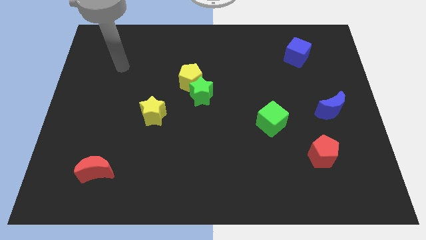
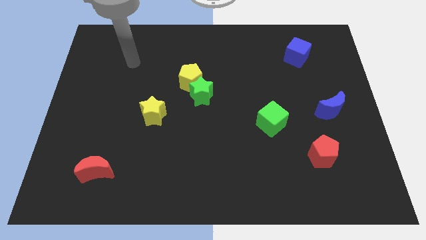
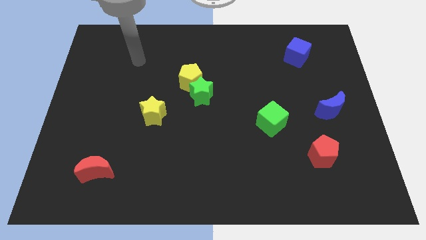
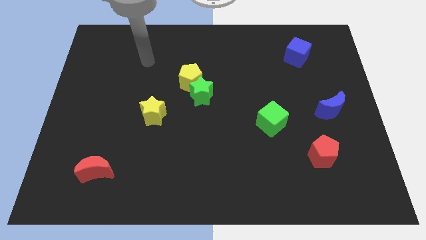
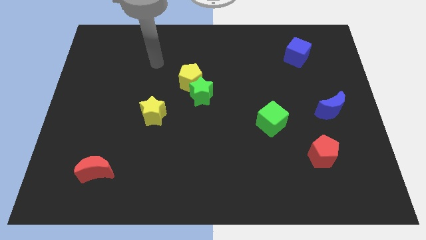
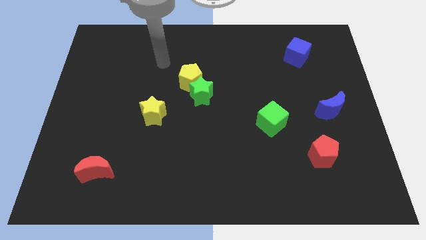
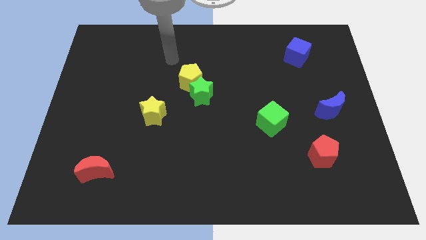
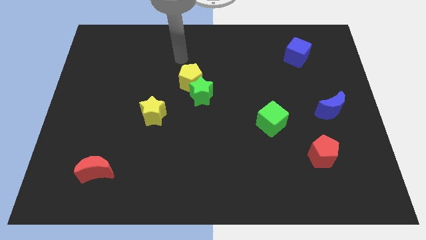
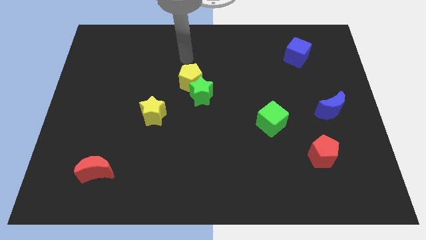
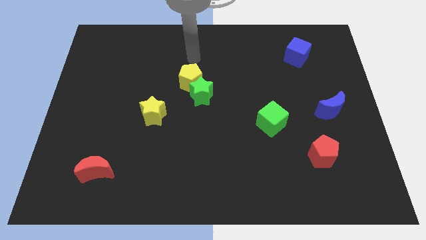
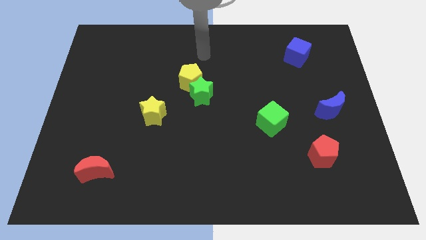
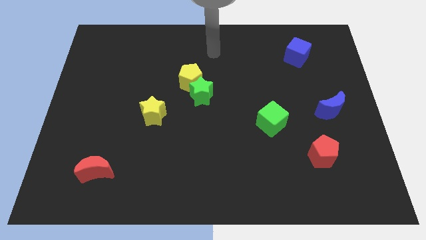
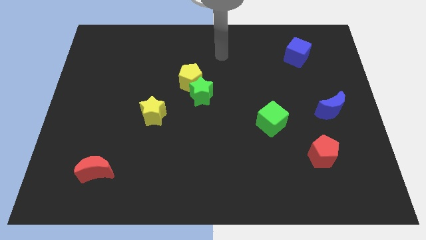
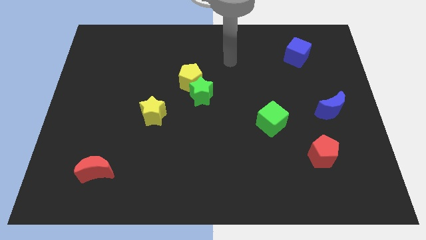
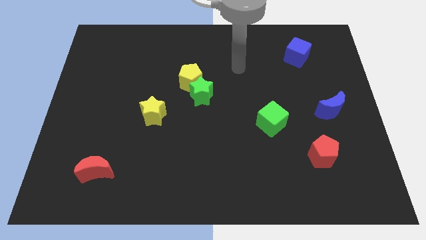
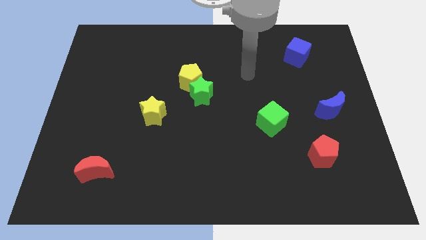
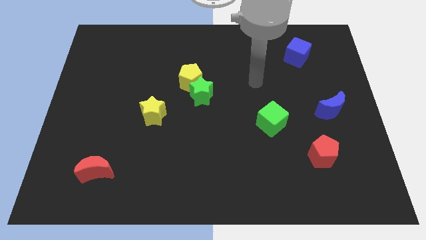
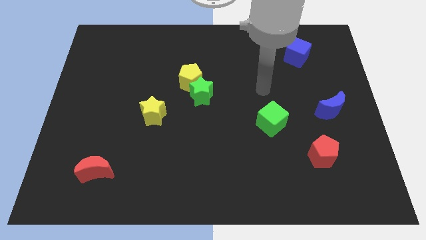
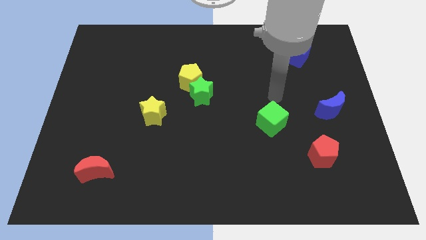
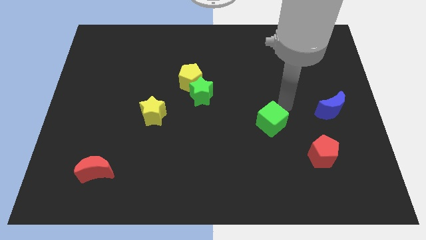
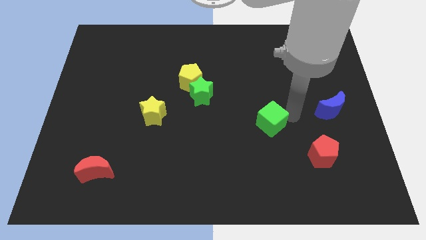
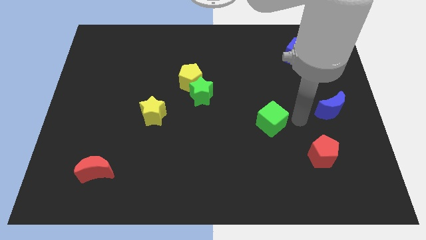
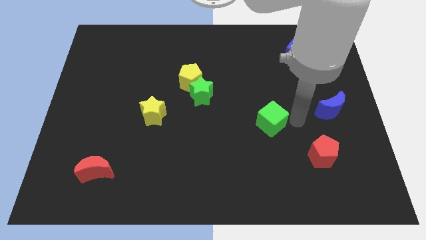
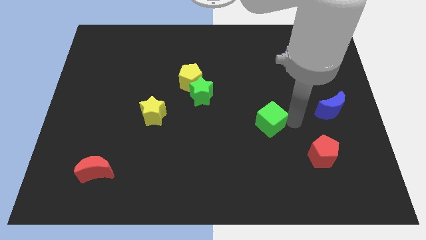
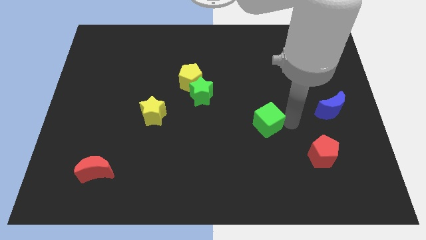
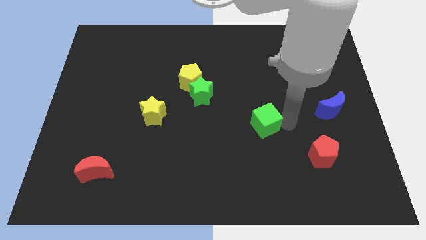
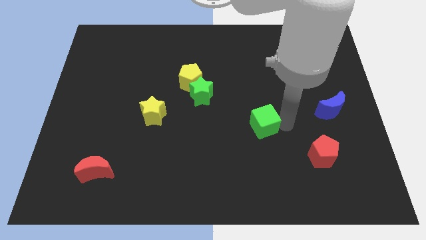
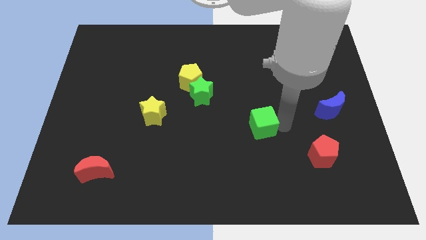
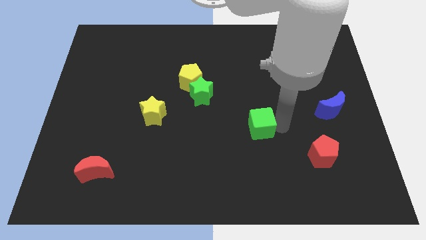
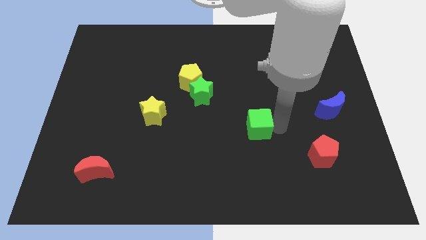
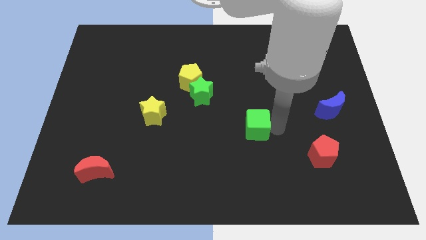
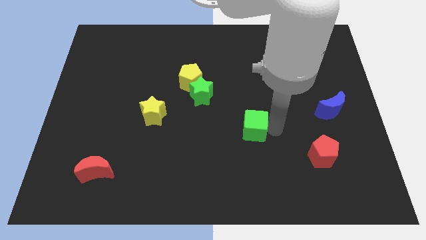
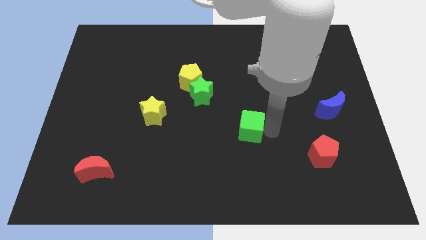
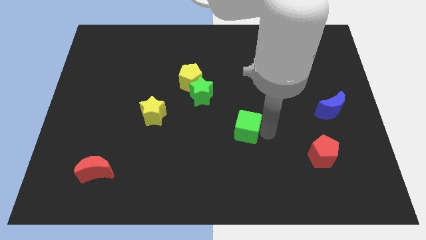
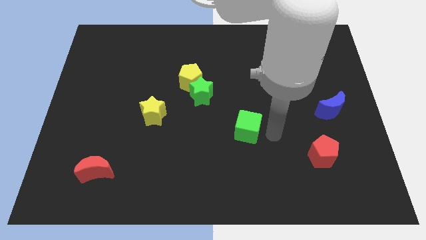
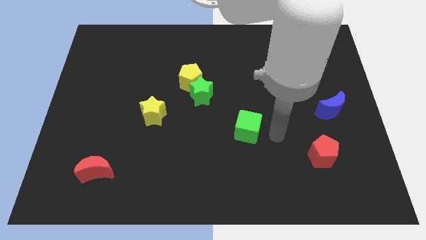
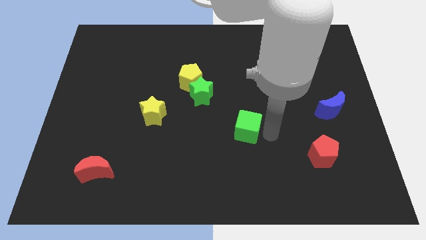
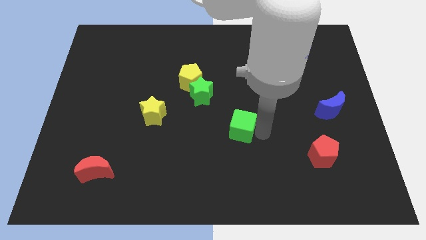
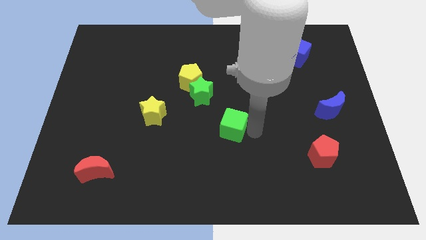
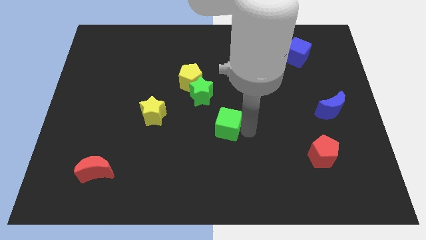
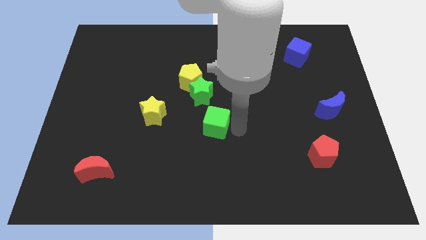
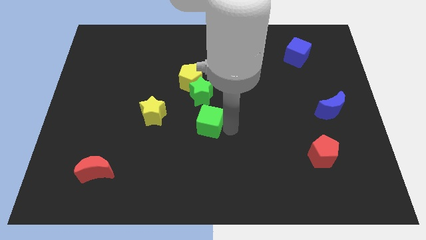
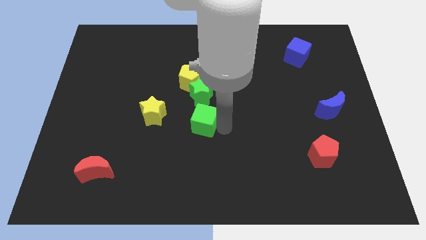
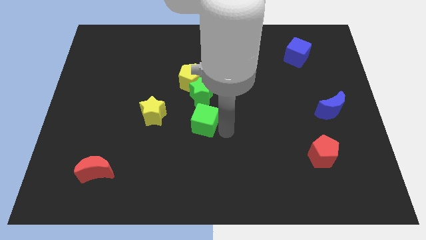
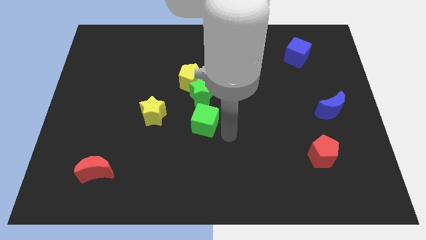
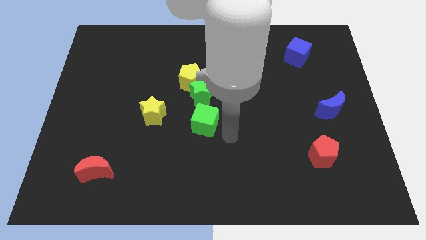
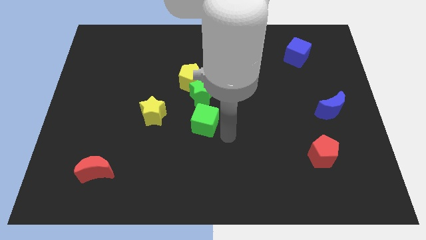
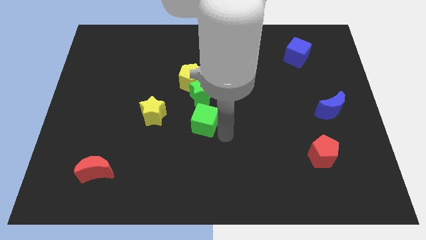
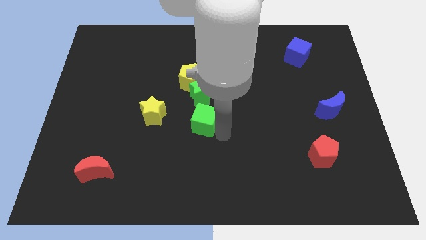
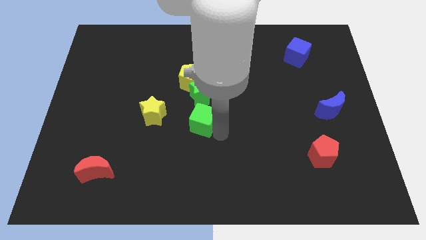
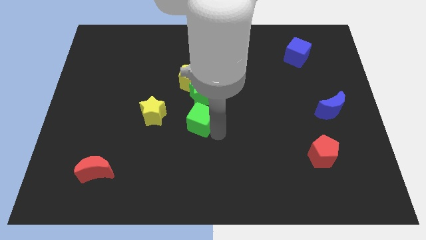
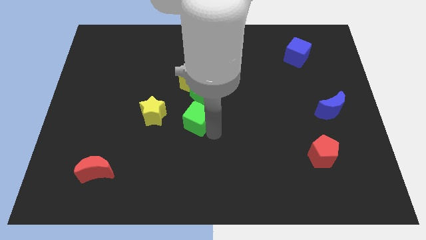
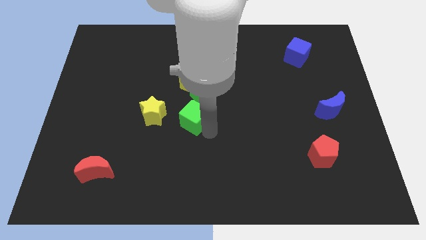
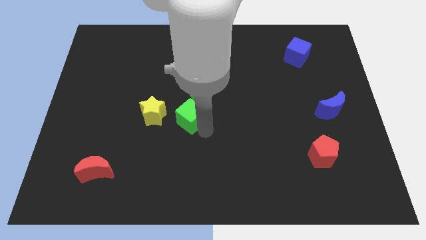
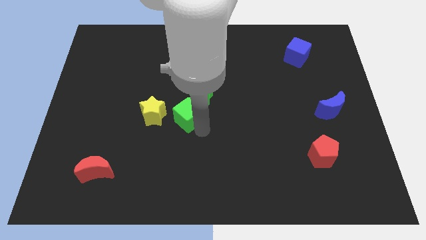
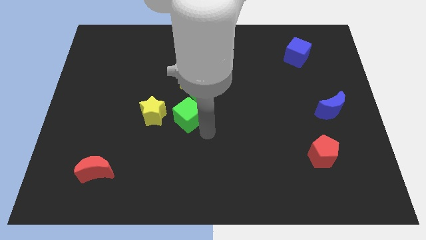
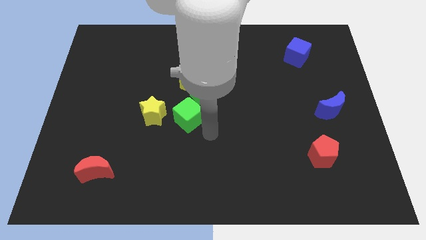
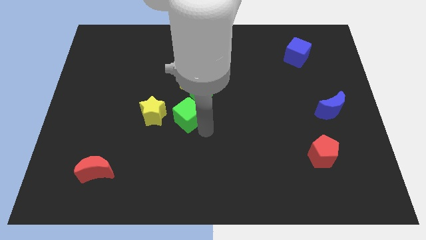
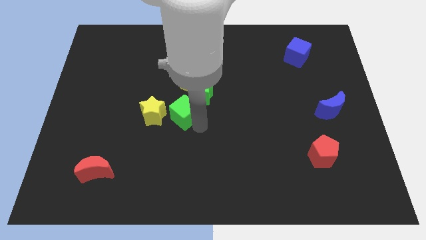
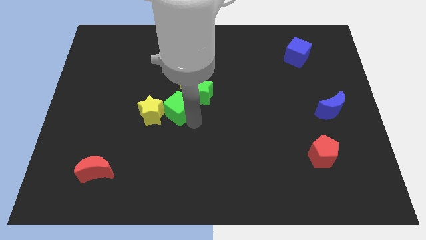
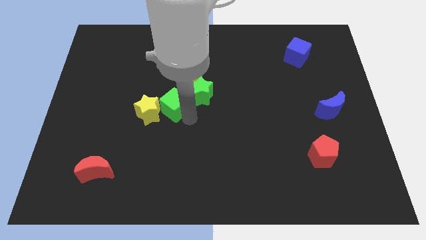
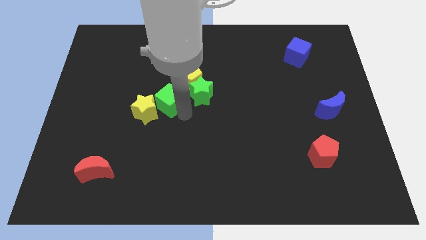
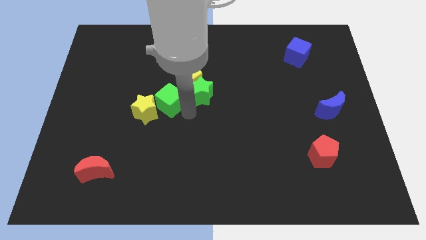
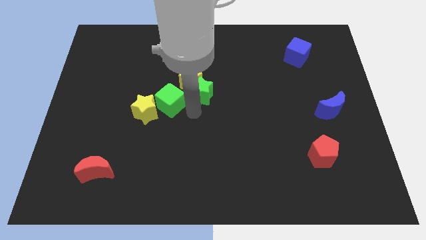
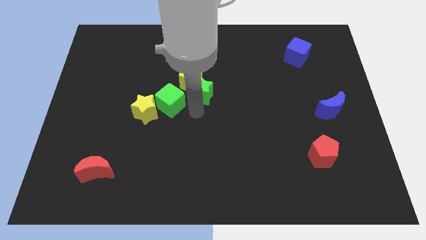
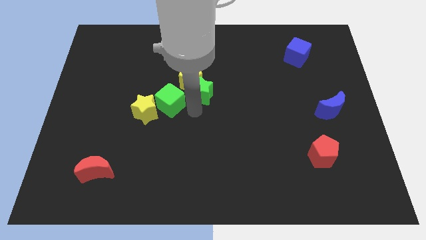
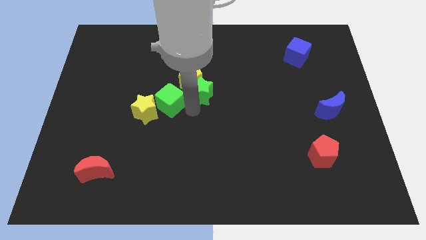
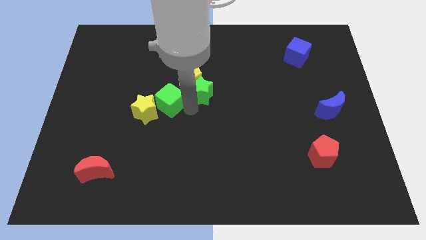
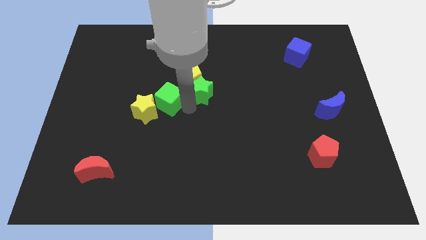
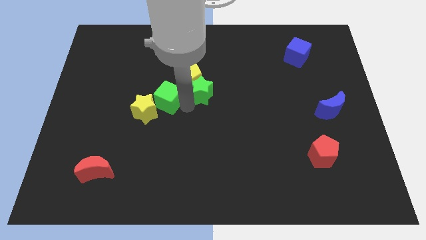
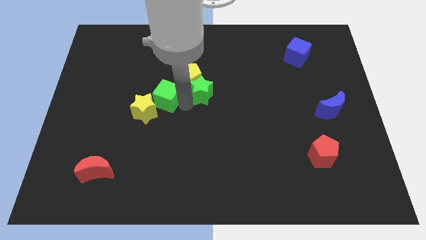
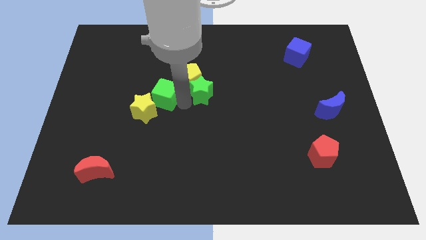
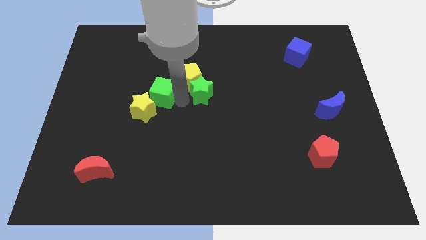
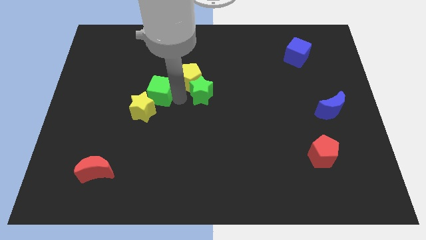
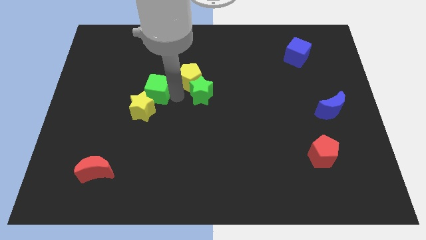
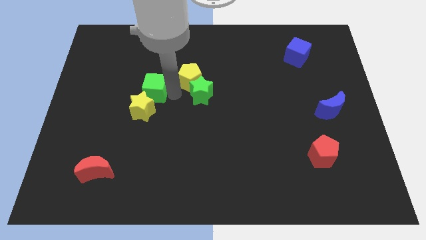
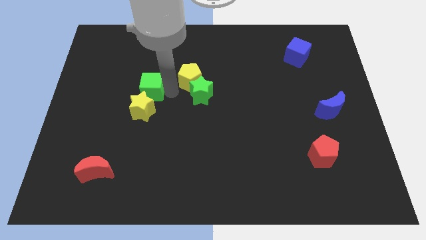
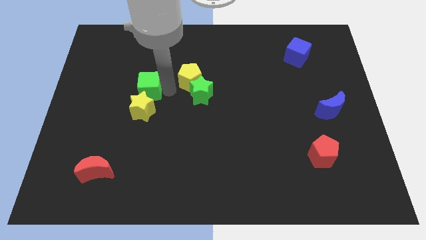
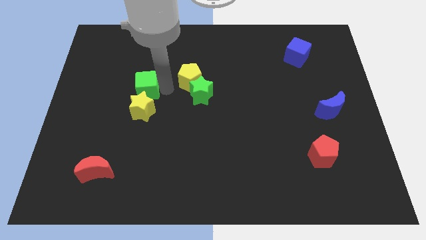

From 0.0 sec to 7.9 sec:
move the green cube to the top left of the yellow star
